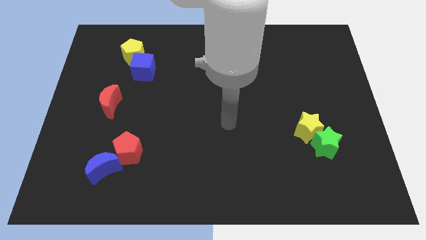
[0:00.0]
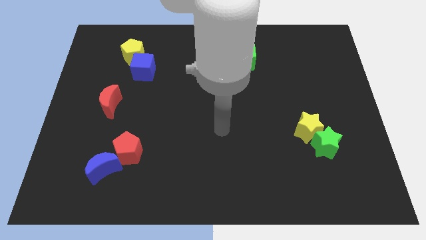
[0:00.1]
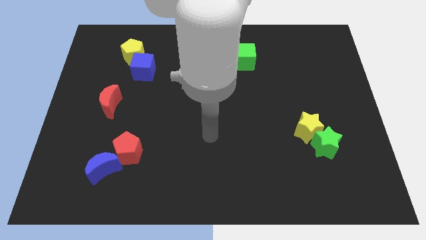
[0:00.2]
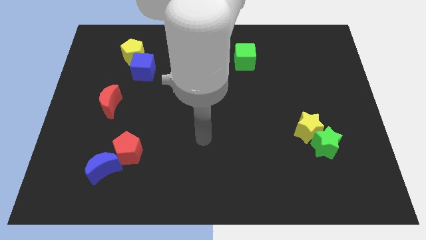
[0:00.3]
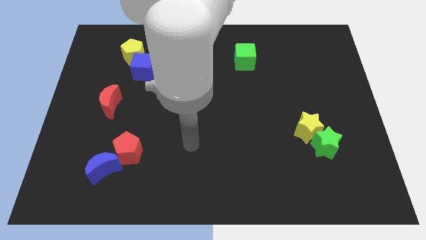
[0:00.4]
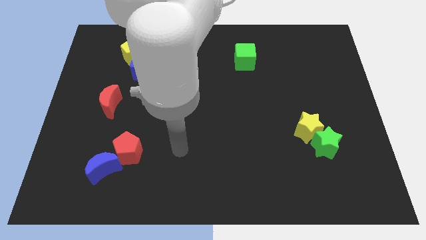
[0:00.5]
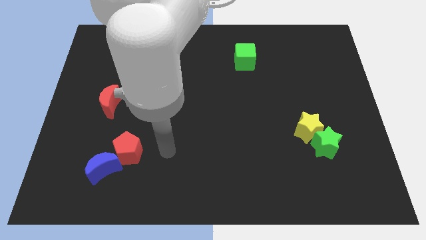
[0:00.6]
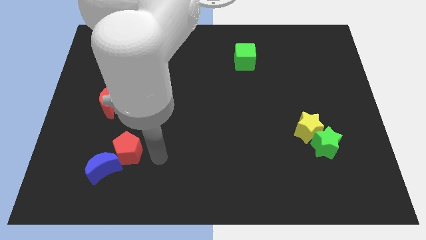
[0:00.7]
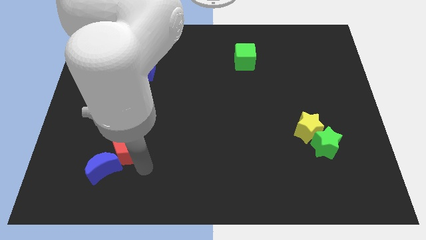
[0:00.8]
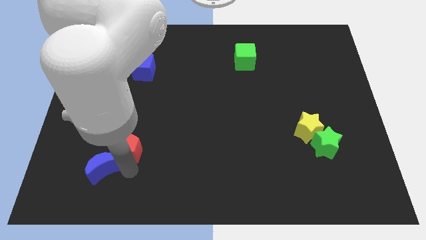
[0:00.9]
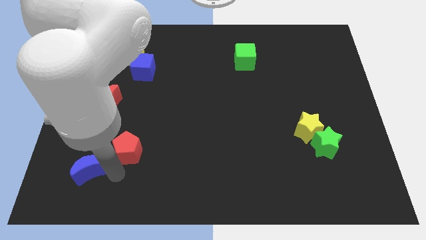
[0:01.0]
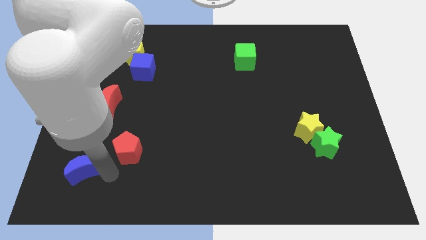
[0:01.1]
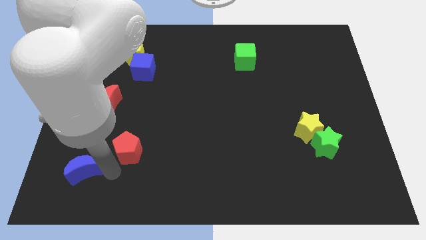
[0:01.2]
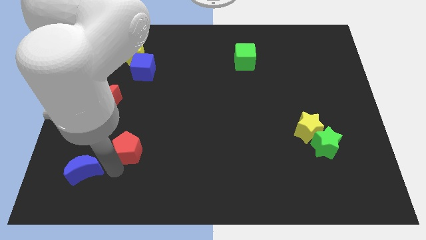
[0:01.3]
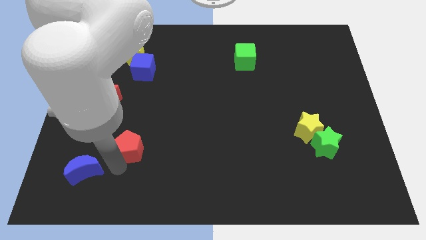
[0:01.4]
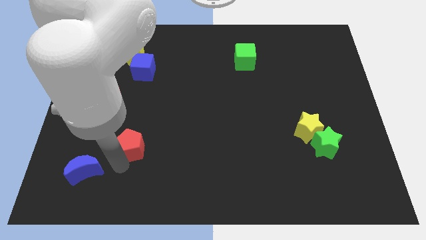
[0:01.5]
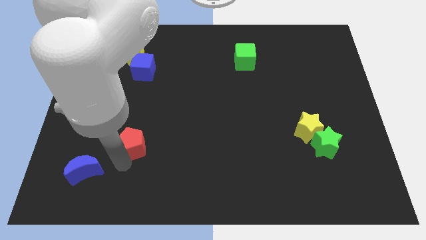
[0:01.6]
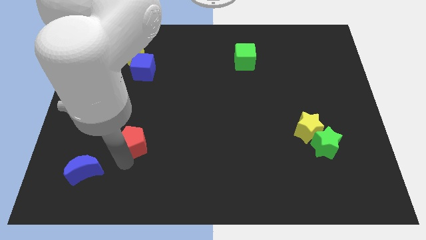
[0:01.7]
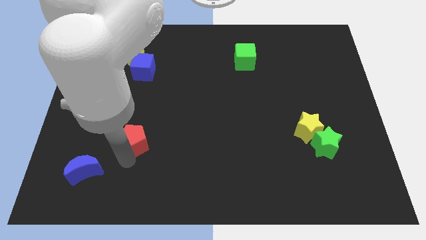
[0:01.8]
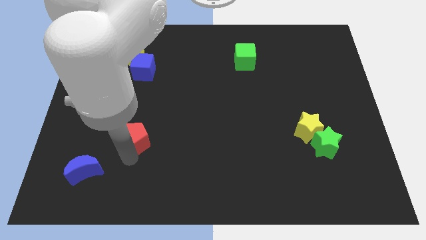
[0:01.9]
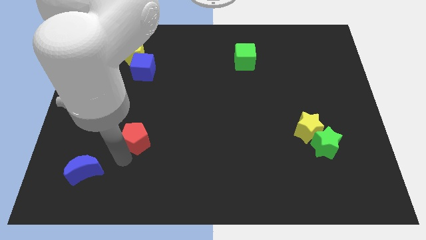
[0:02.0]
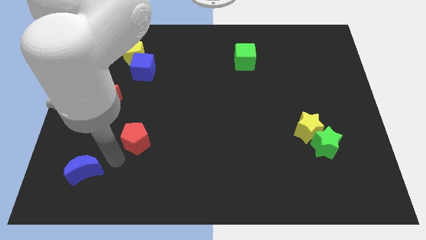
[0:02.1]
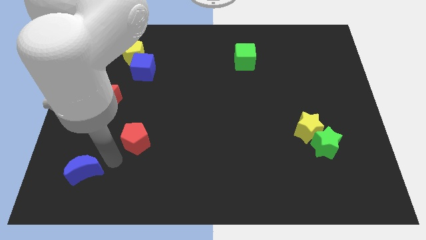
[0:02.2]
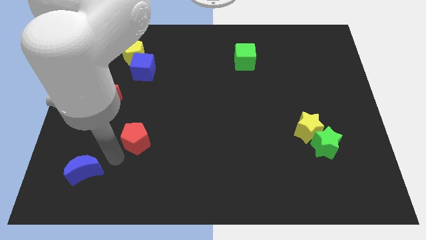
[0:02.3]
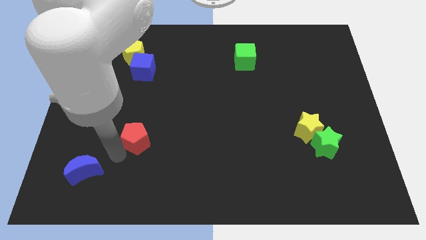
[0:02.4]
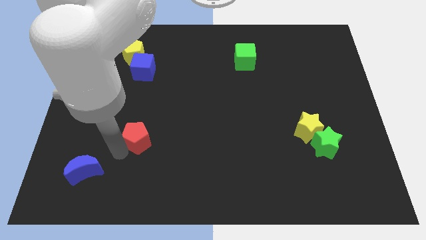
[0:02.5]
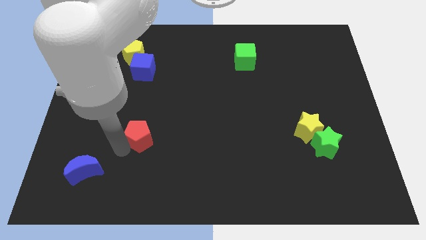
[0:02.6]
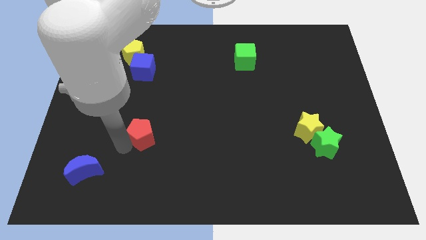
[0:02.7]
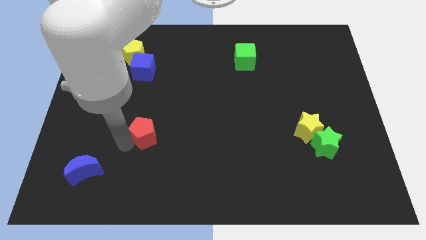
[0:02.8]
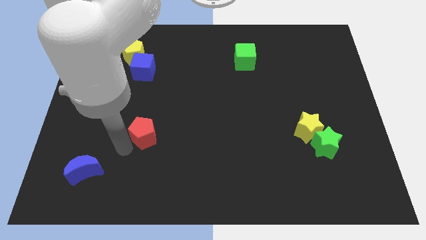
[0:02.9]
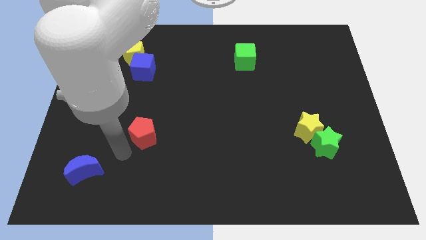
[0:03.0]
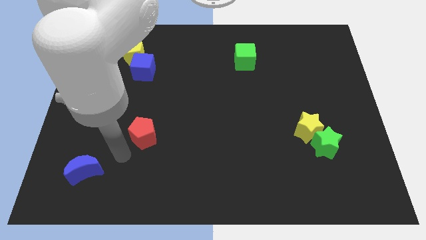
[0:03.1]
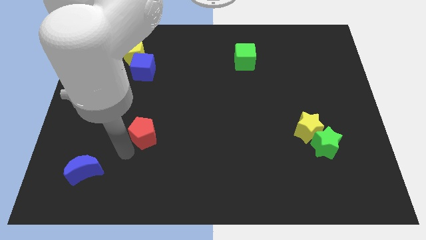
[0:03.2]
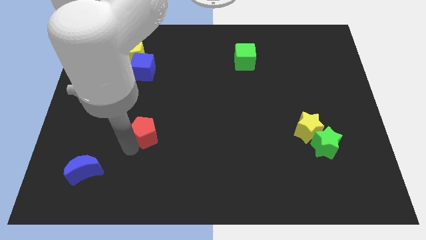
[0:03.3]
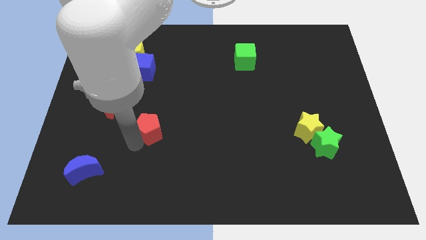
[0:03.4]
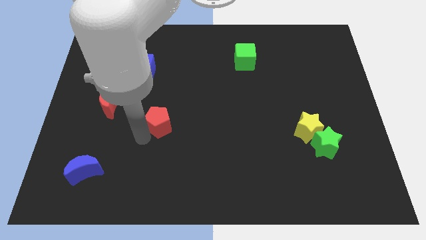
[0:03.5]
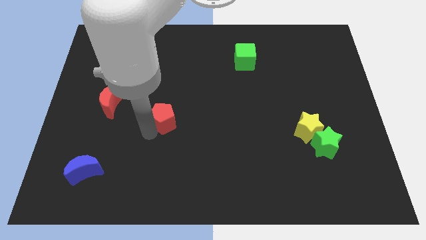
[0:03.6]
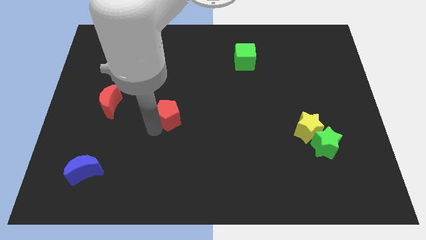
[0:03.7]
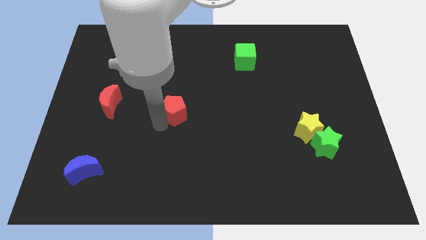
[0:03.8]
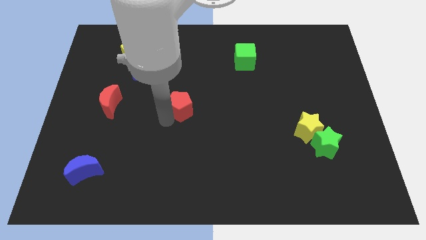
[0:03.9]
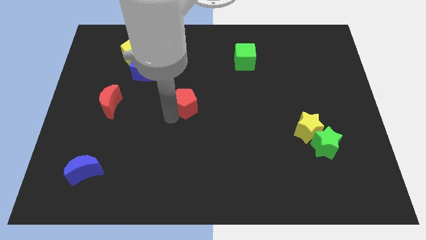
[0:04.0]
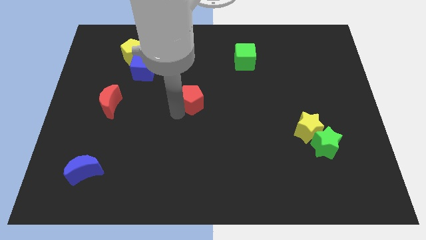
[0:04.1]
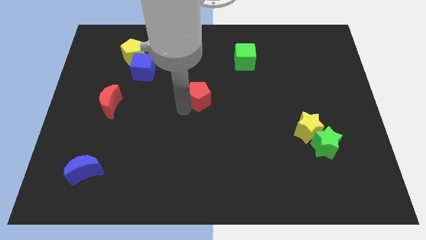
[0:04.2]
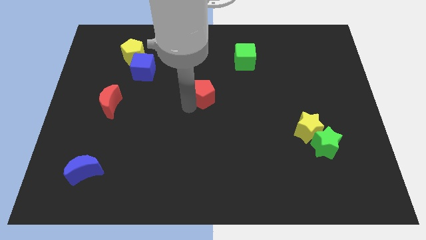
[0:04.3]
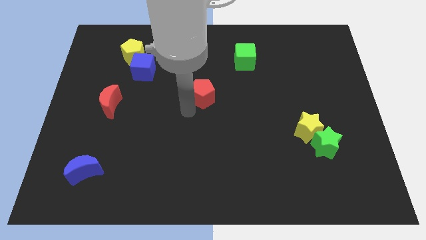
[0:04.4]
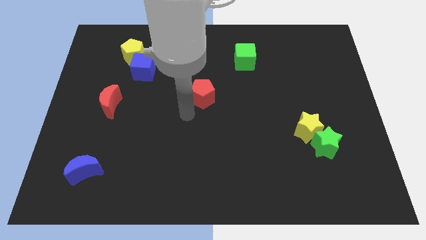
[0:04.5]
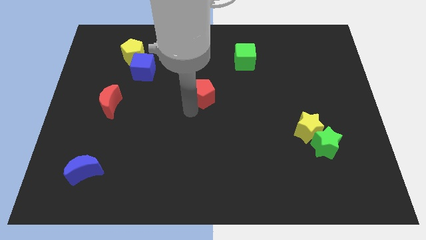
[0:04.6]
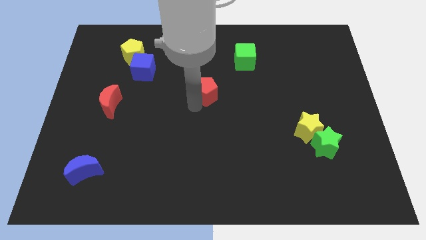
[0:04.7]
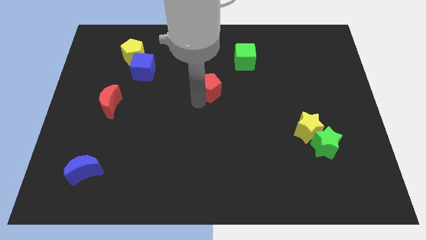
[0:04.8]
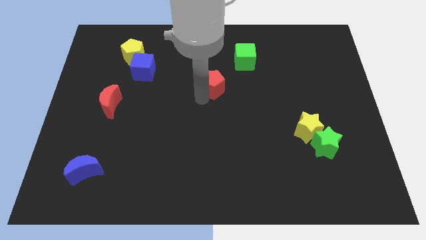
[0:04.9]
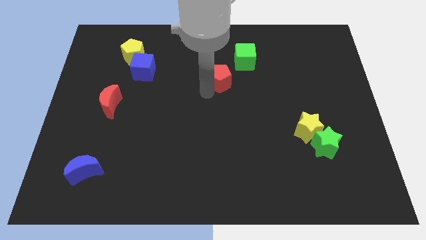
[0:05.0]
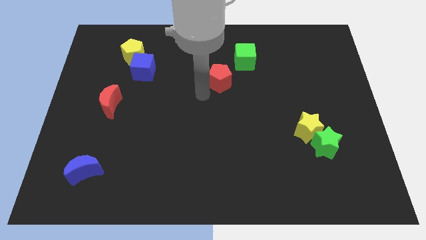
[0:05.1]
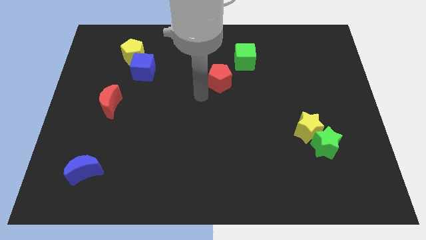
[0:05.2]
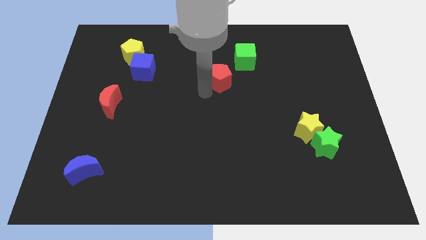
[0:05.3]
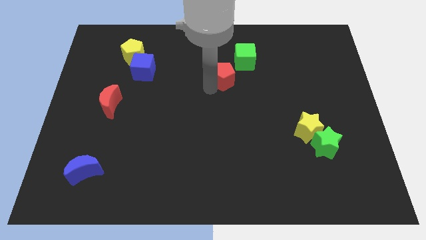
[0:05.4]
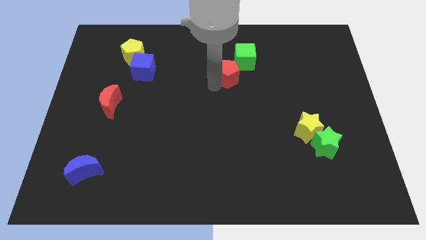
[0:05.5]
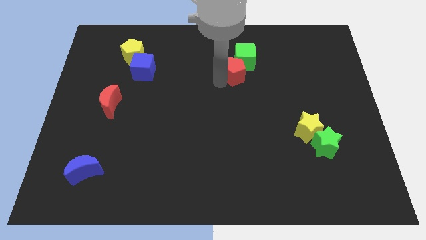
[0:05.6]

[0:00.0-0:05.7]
push the red pentagon to the green cube

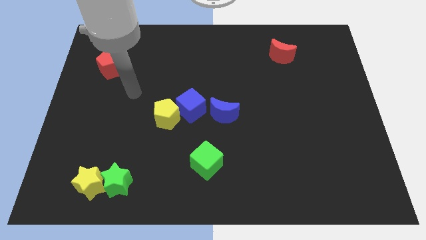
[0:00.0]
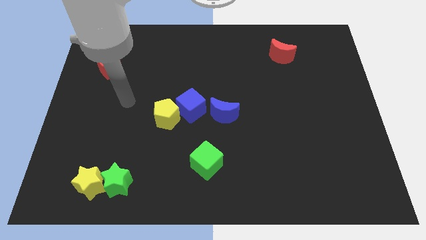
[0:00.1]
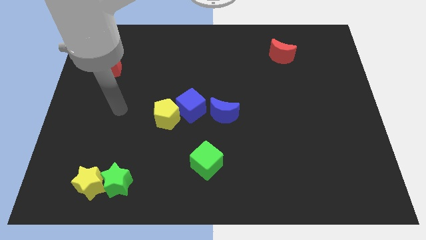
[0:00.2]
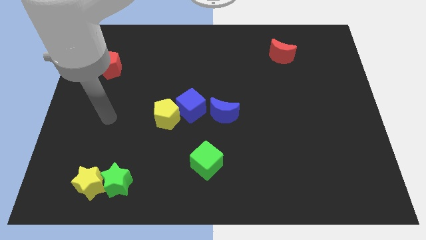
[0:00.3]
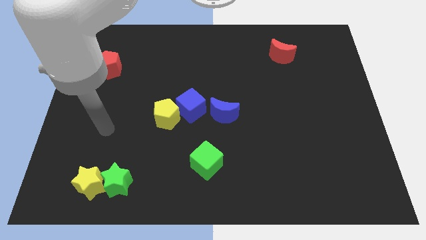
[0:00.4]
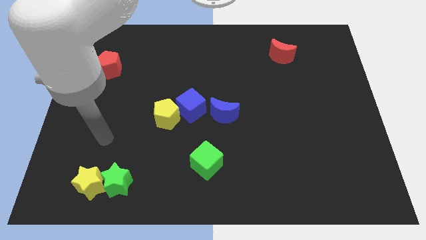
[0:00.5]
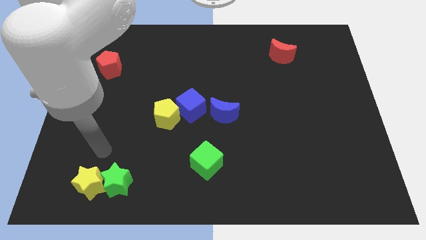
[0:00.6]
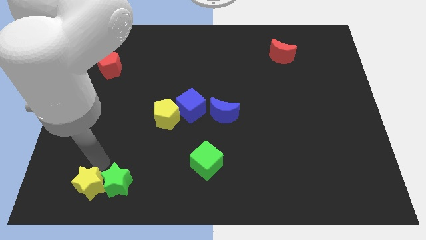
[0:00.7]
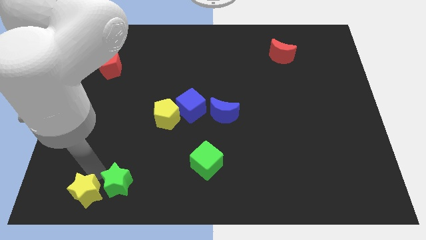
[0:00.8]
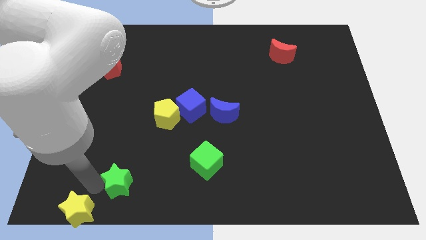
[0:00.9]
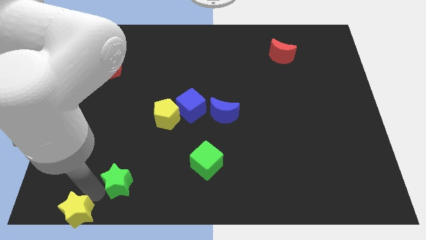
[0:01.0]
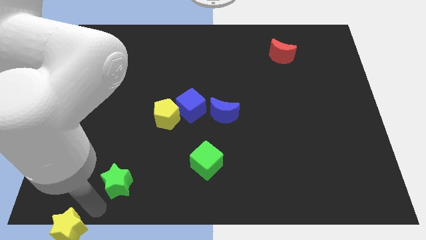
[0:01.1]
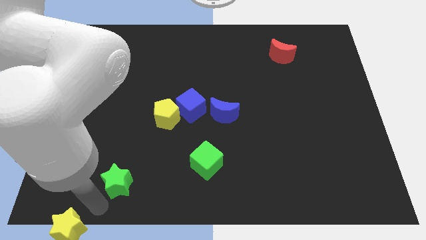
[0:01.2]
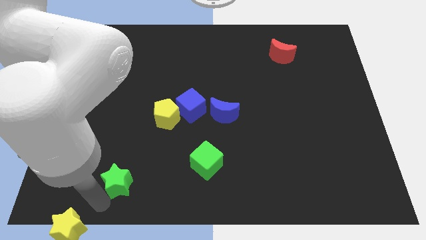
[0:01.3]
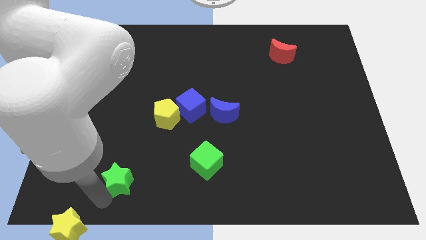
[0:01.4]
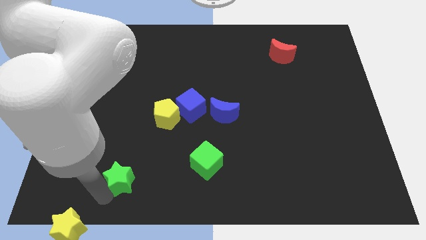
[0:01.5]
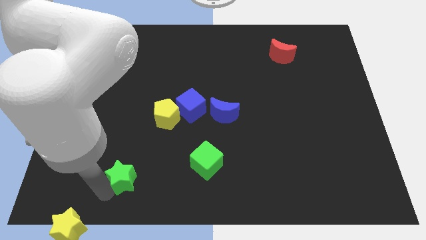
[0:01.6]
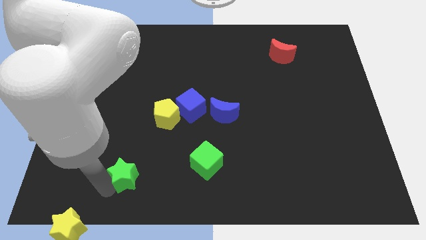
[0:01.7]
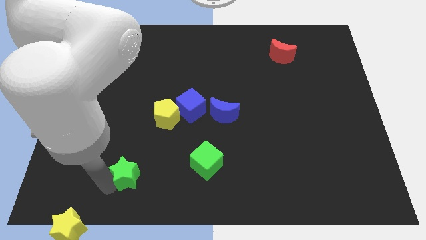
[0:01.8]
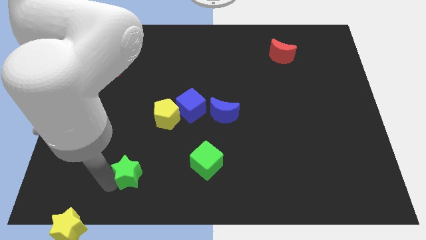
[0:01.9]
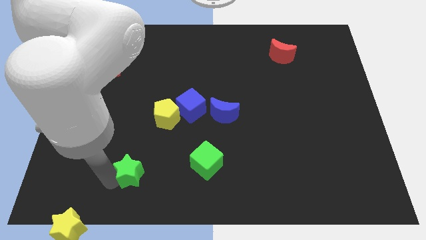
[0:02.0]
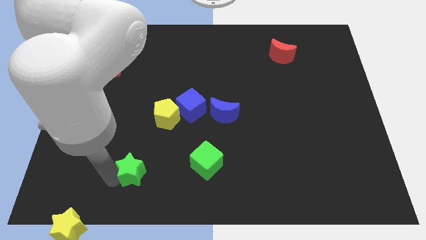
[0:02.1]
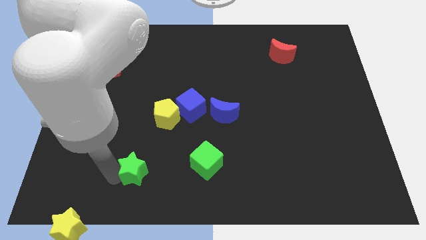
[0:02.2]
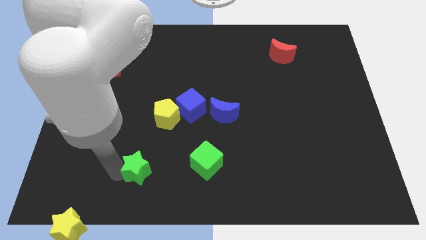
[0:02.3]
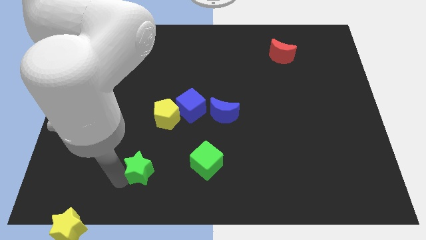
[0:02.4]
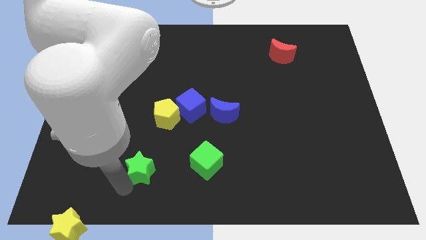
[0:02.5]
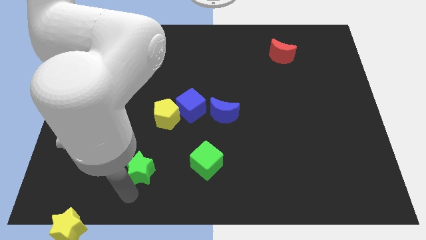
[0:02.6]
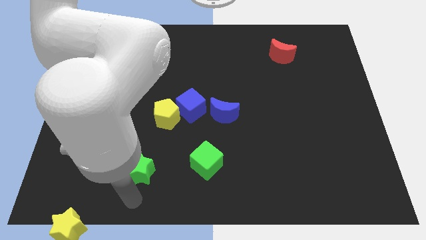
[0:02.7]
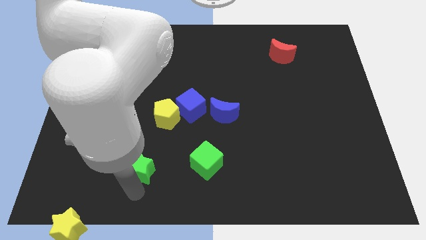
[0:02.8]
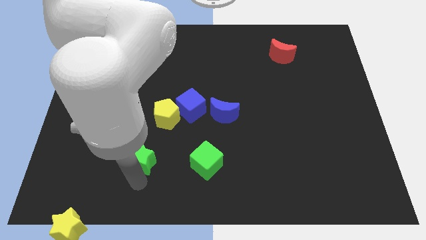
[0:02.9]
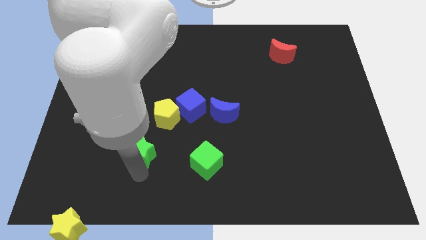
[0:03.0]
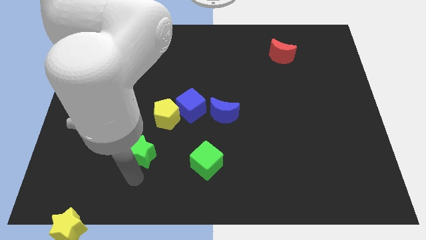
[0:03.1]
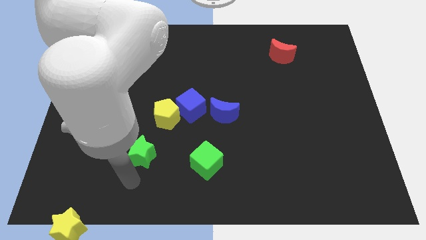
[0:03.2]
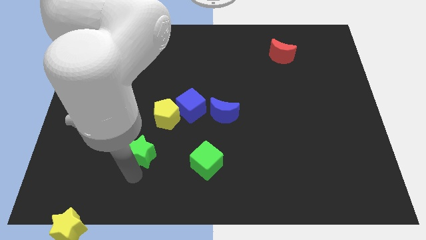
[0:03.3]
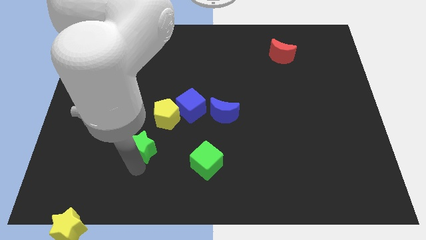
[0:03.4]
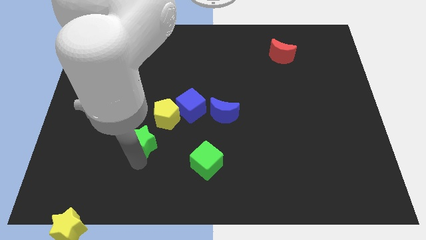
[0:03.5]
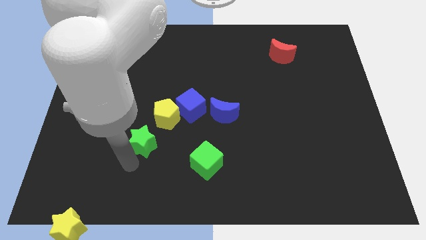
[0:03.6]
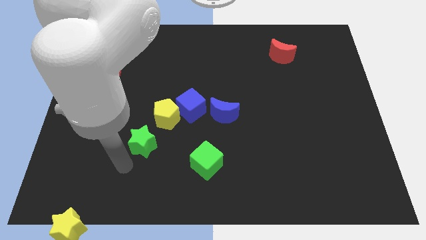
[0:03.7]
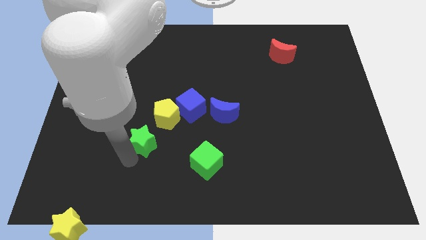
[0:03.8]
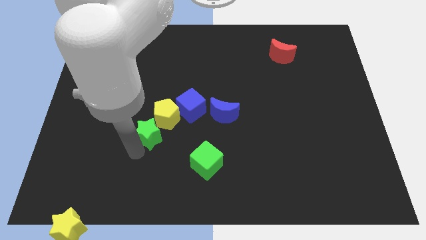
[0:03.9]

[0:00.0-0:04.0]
put the green star close to the yellow pentagon
